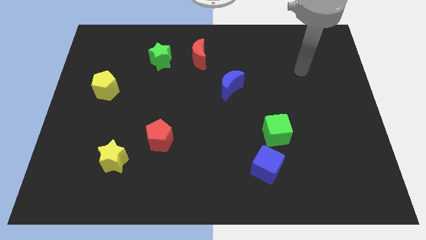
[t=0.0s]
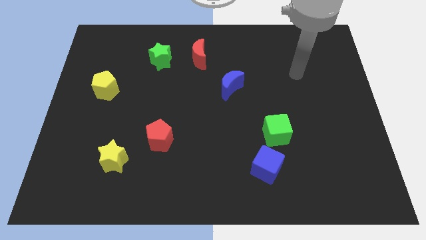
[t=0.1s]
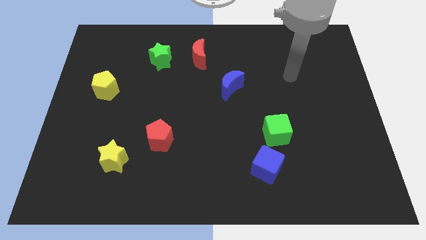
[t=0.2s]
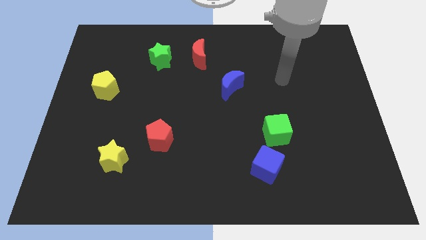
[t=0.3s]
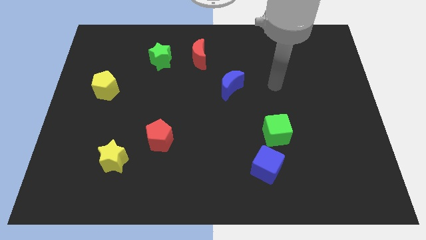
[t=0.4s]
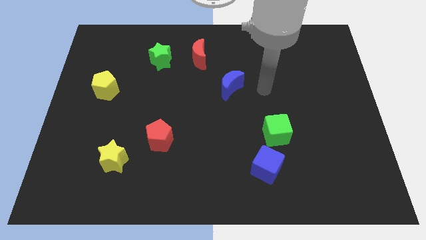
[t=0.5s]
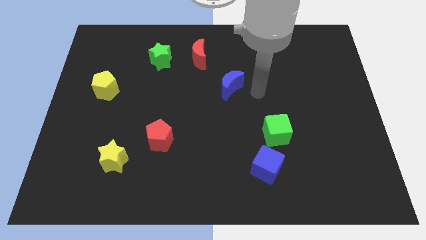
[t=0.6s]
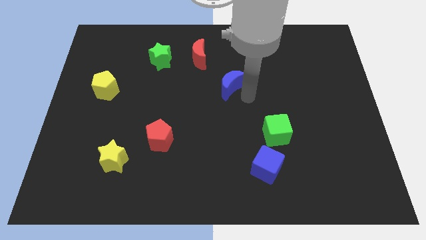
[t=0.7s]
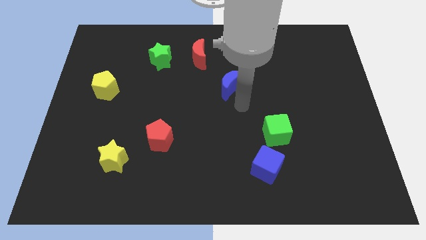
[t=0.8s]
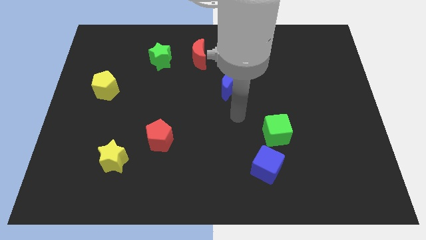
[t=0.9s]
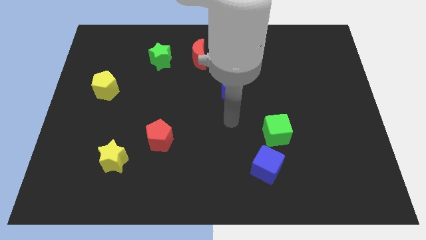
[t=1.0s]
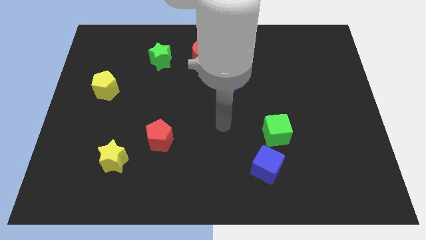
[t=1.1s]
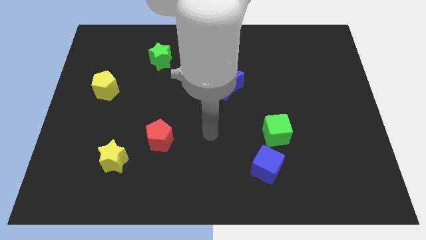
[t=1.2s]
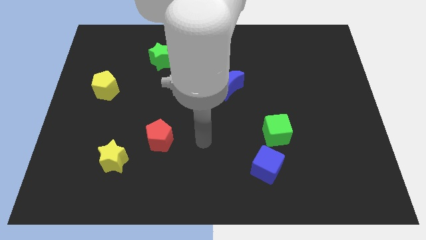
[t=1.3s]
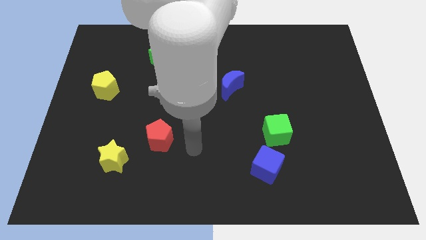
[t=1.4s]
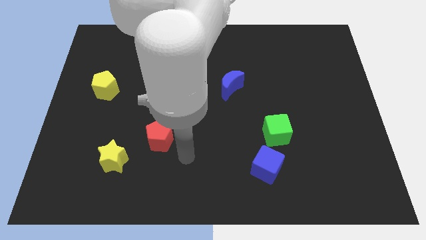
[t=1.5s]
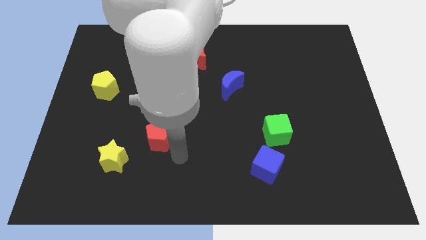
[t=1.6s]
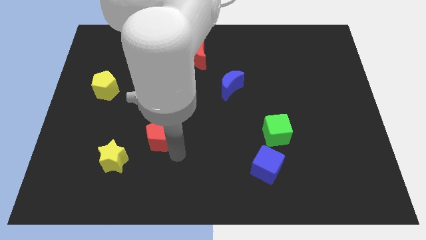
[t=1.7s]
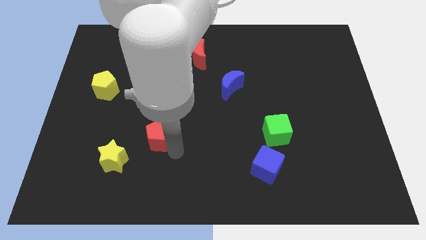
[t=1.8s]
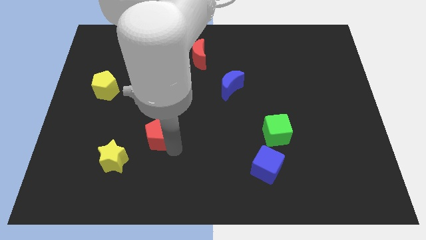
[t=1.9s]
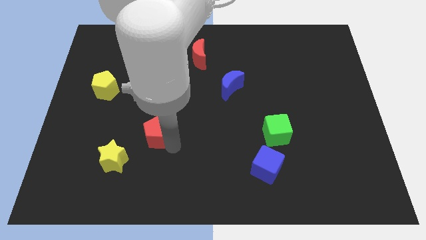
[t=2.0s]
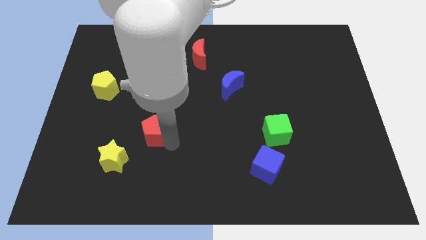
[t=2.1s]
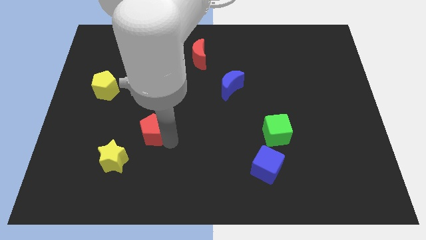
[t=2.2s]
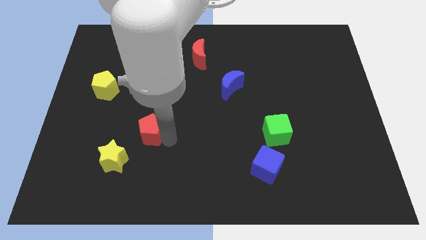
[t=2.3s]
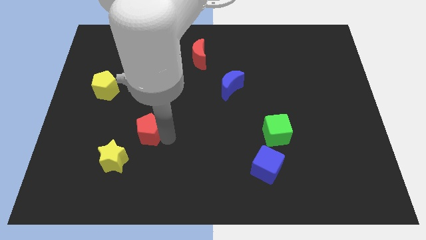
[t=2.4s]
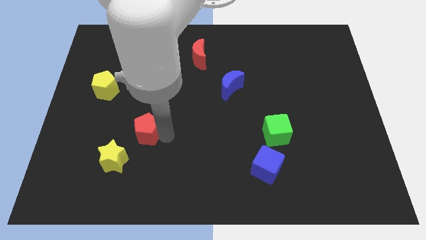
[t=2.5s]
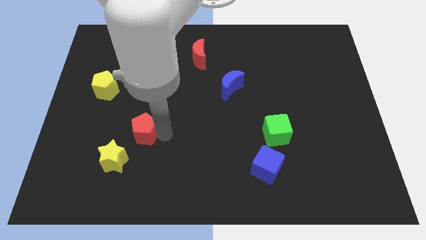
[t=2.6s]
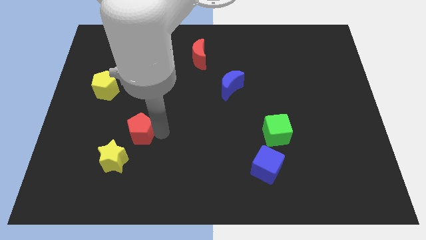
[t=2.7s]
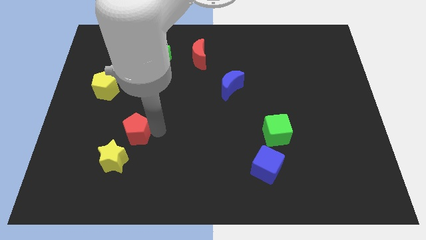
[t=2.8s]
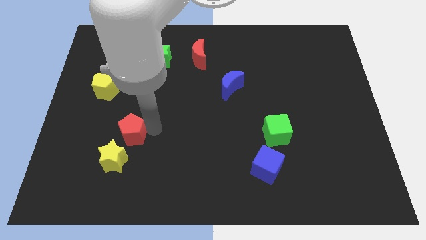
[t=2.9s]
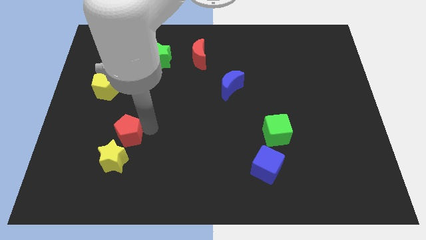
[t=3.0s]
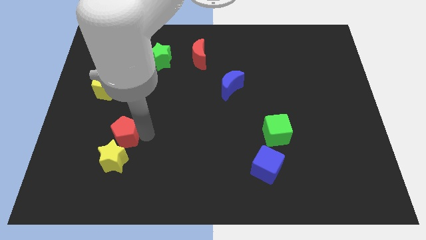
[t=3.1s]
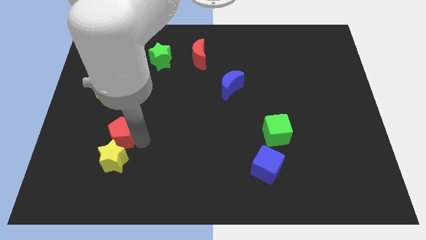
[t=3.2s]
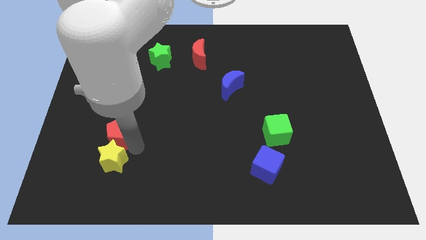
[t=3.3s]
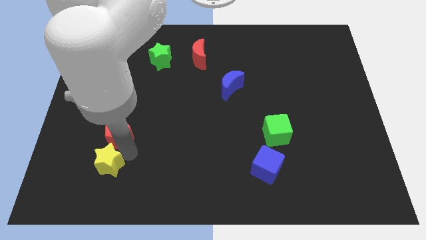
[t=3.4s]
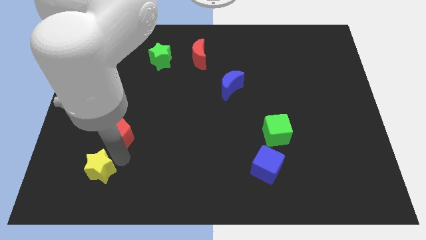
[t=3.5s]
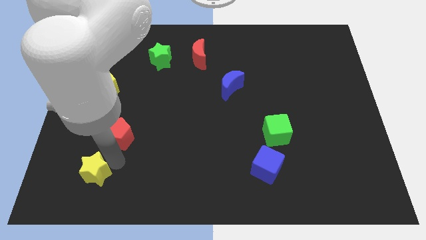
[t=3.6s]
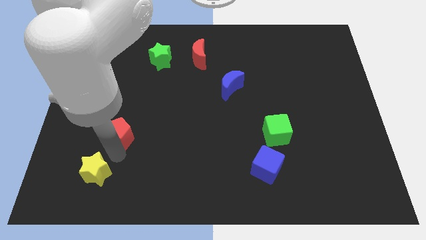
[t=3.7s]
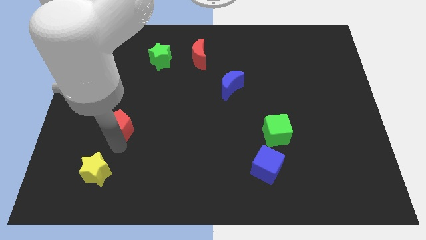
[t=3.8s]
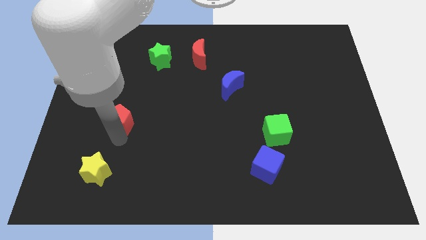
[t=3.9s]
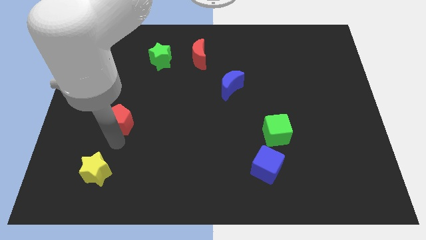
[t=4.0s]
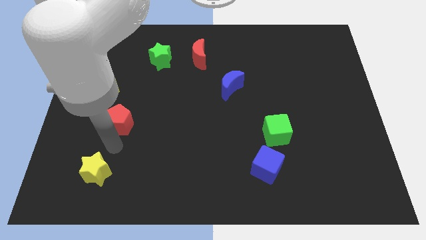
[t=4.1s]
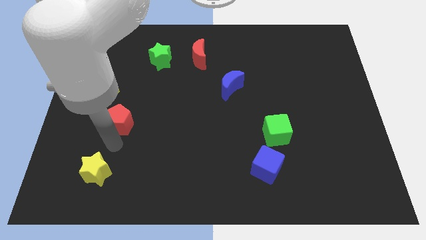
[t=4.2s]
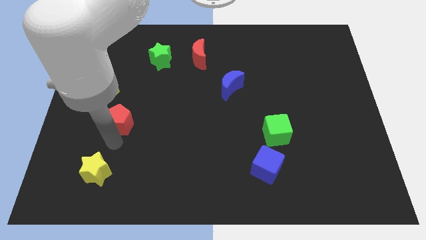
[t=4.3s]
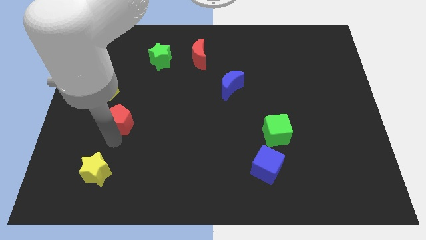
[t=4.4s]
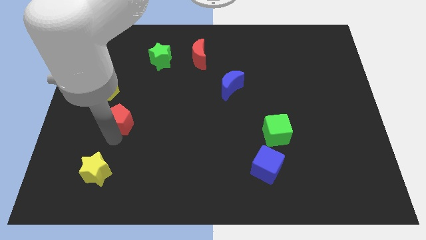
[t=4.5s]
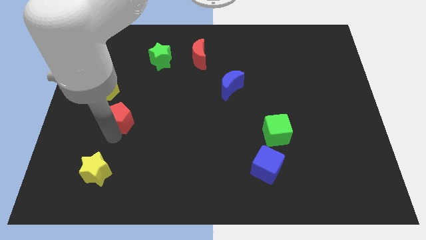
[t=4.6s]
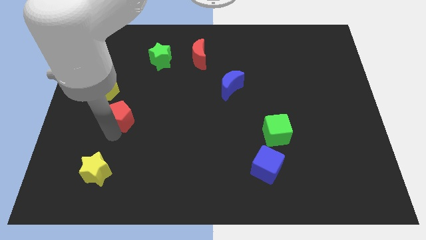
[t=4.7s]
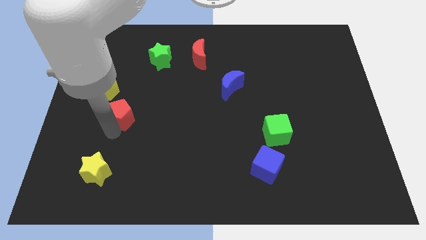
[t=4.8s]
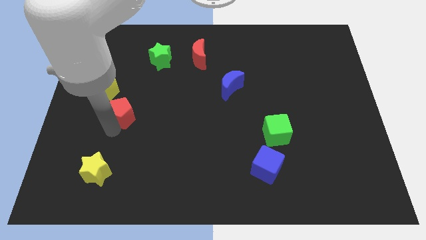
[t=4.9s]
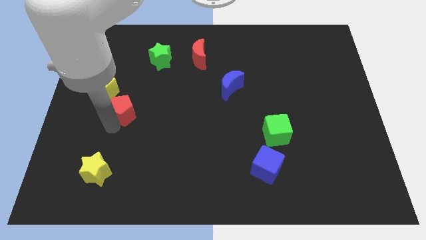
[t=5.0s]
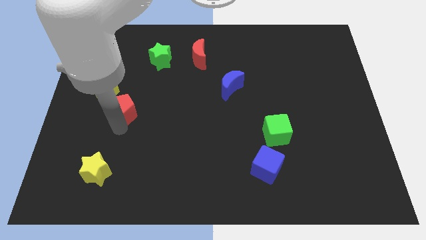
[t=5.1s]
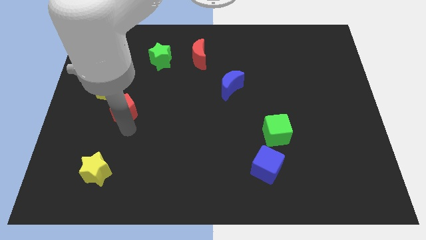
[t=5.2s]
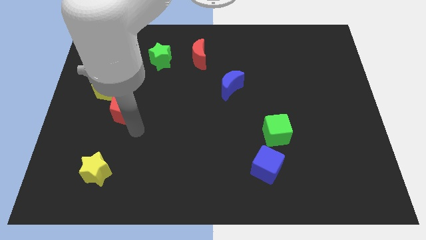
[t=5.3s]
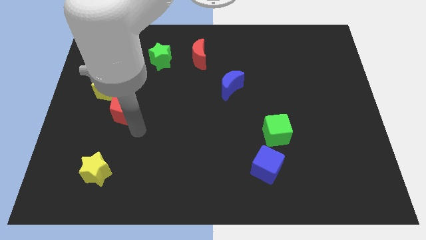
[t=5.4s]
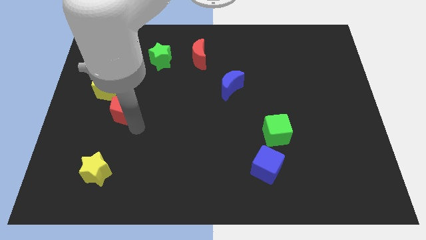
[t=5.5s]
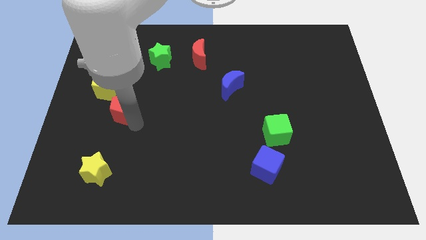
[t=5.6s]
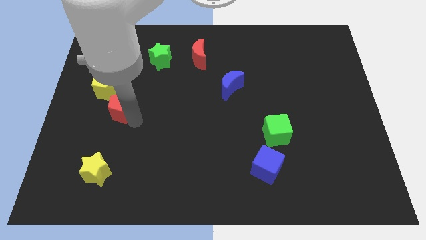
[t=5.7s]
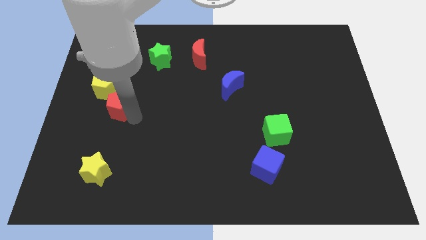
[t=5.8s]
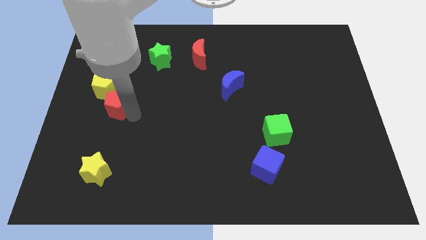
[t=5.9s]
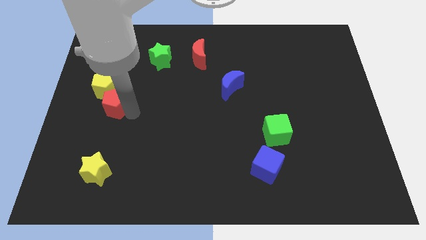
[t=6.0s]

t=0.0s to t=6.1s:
move the red pentagon next to the yellow pentagon

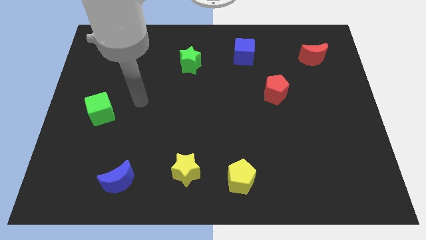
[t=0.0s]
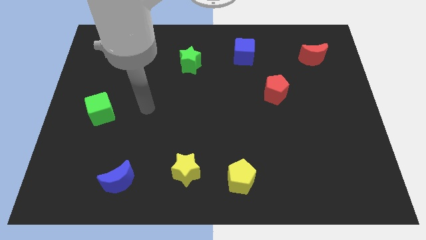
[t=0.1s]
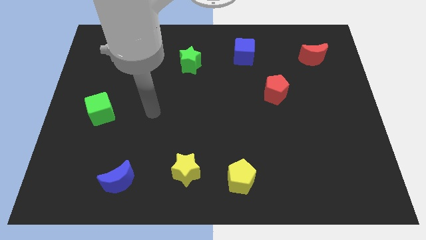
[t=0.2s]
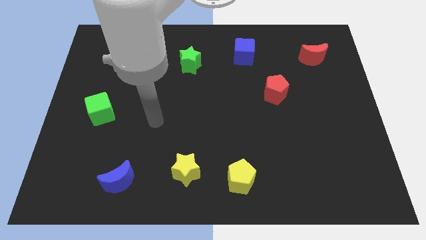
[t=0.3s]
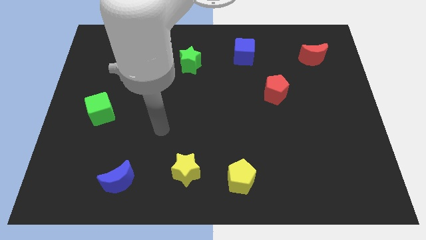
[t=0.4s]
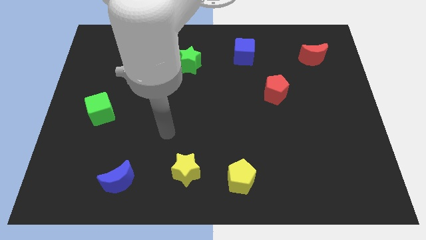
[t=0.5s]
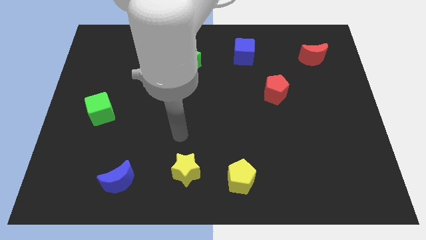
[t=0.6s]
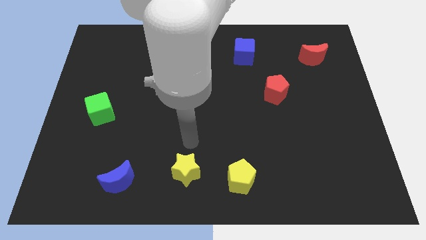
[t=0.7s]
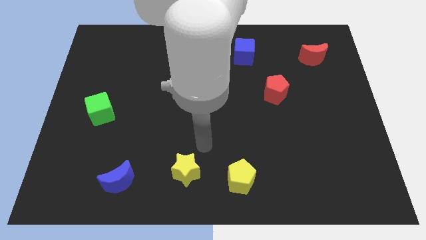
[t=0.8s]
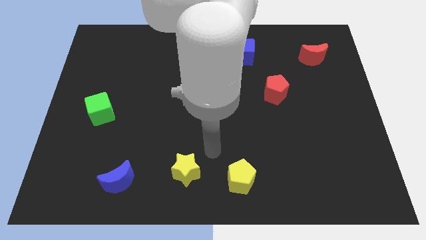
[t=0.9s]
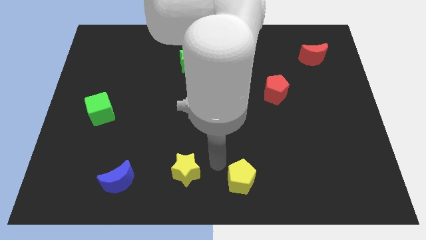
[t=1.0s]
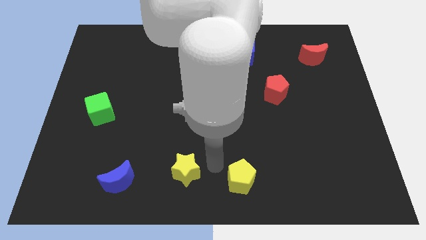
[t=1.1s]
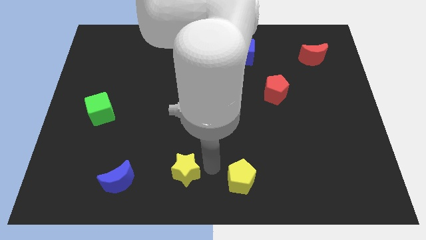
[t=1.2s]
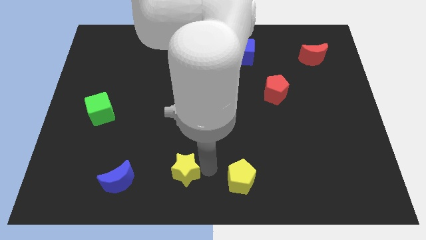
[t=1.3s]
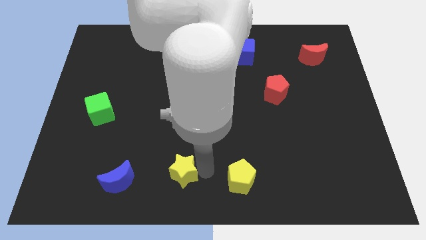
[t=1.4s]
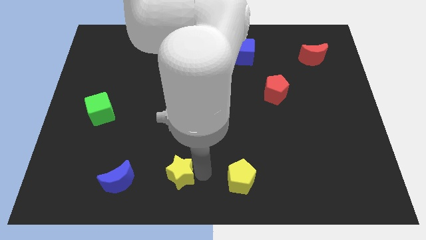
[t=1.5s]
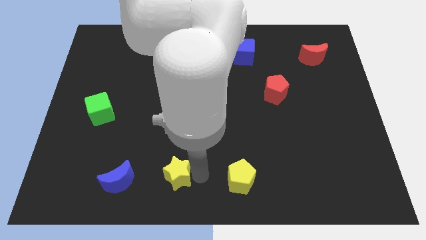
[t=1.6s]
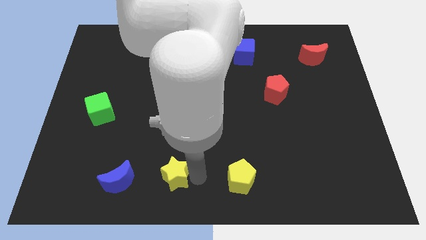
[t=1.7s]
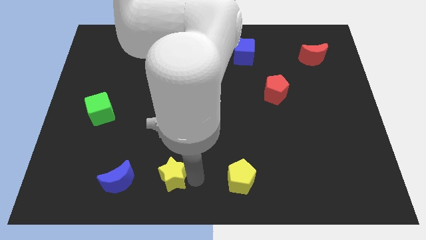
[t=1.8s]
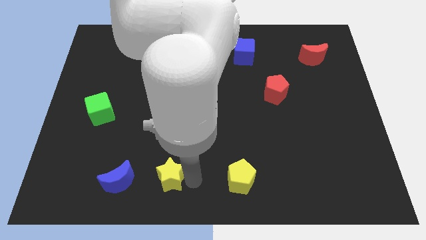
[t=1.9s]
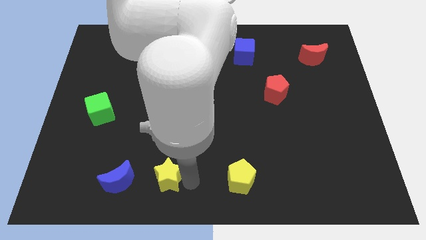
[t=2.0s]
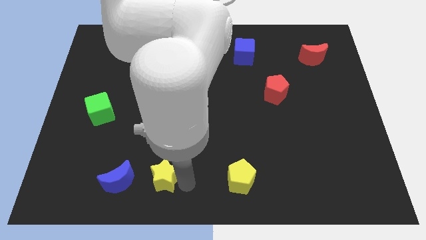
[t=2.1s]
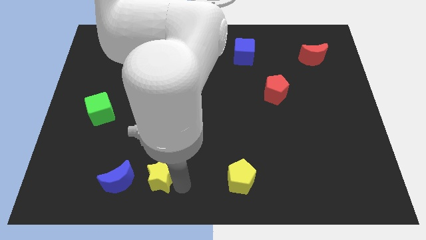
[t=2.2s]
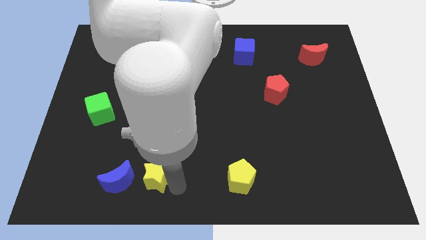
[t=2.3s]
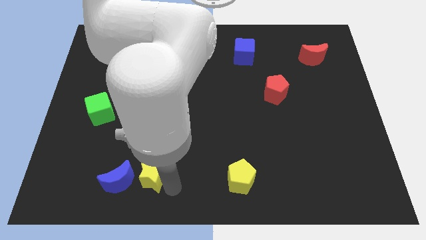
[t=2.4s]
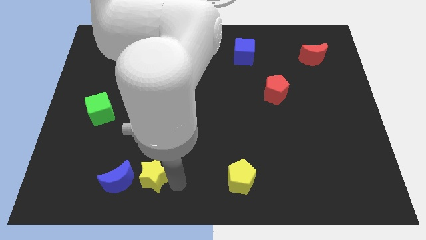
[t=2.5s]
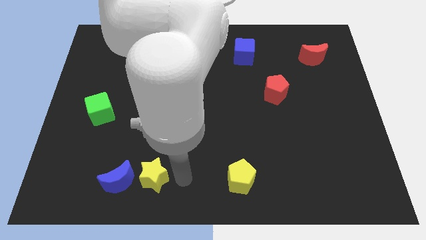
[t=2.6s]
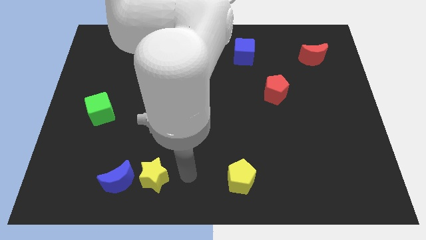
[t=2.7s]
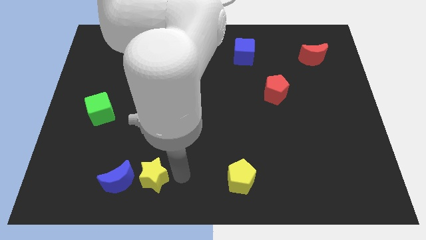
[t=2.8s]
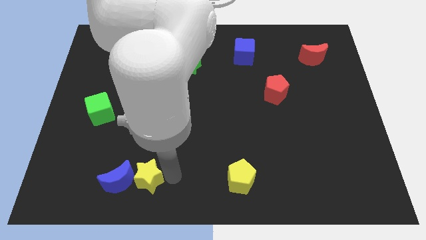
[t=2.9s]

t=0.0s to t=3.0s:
slide the yellow star towards the blue moon
